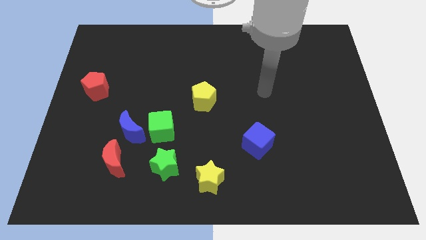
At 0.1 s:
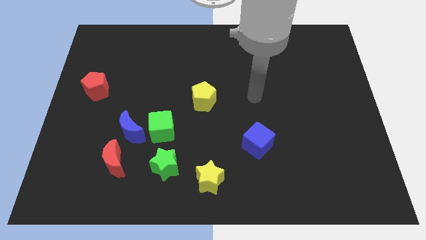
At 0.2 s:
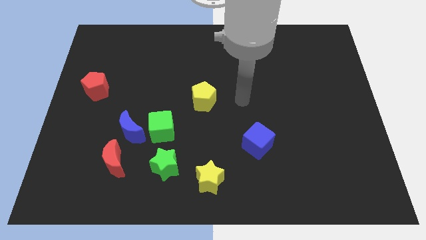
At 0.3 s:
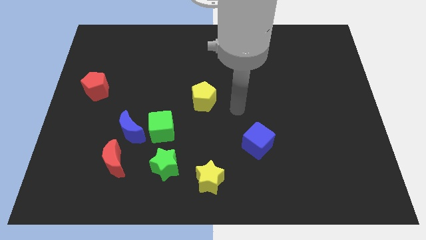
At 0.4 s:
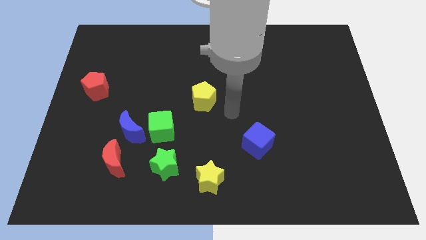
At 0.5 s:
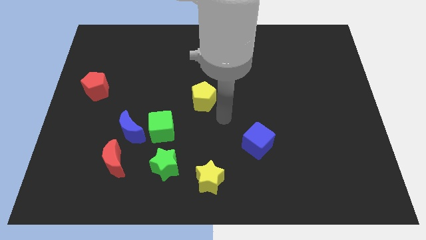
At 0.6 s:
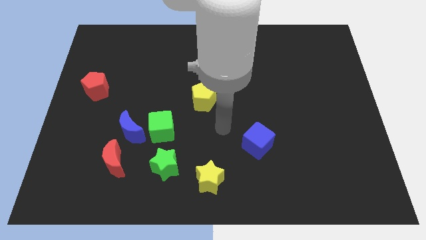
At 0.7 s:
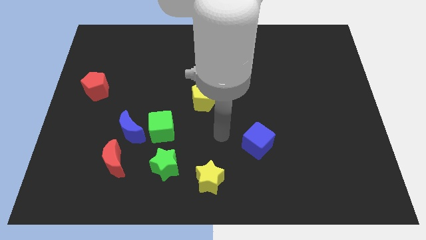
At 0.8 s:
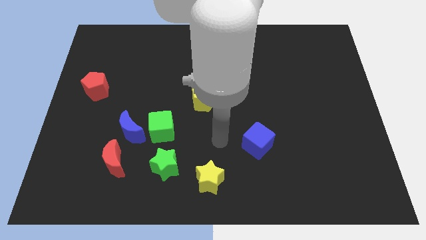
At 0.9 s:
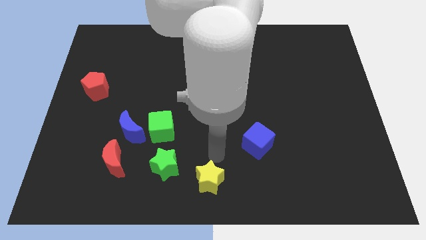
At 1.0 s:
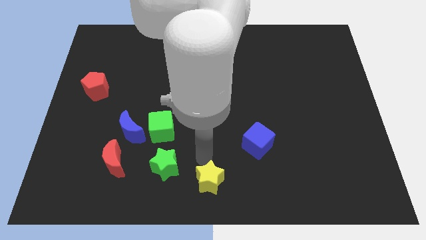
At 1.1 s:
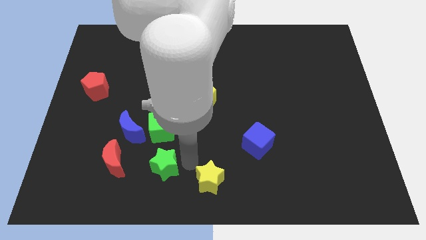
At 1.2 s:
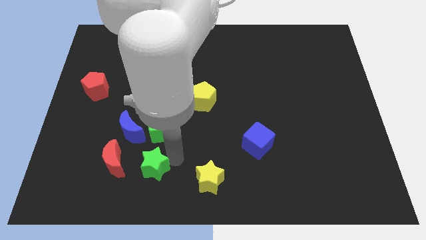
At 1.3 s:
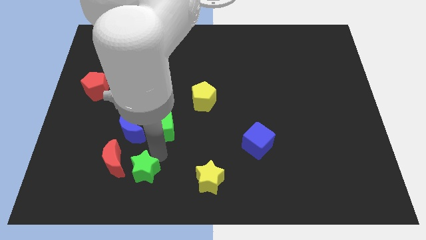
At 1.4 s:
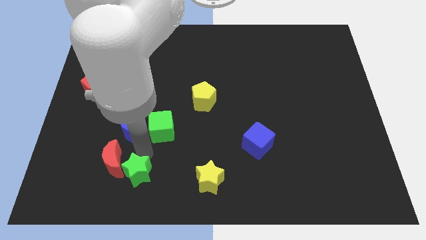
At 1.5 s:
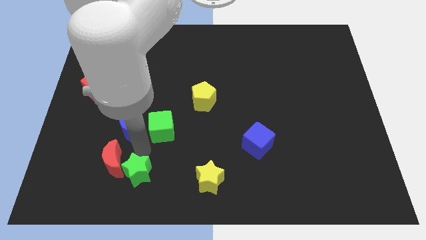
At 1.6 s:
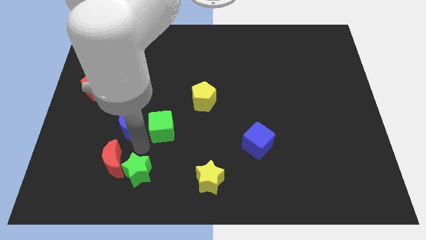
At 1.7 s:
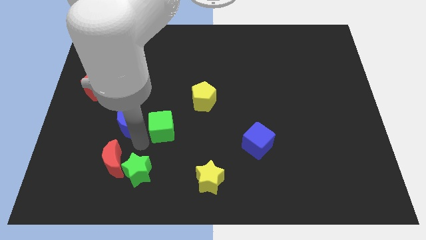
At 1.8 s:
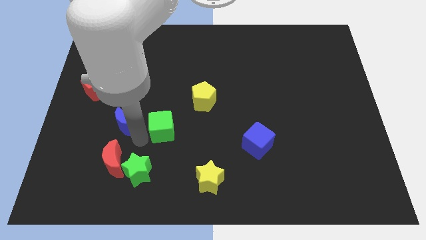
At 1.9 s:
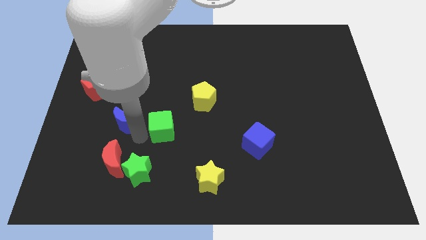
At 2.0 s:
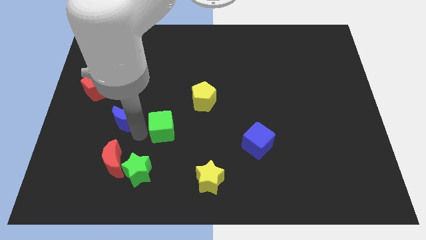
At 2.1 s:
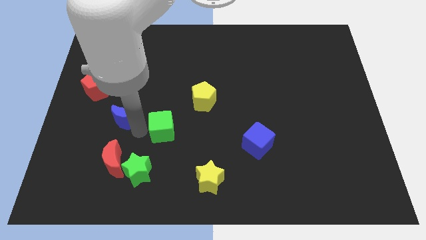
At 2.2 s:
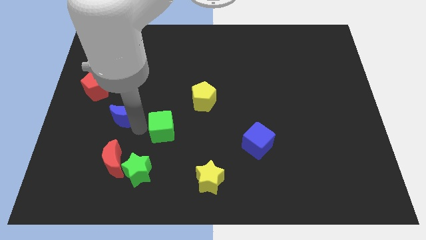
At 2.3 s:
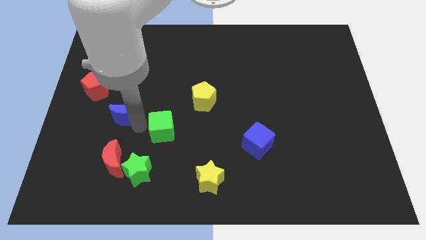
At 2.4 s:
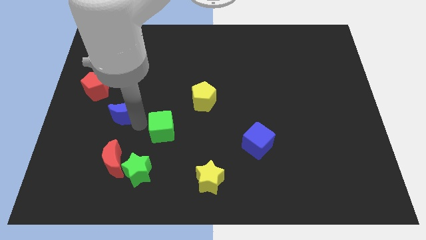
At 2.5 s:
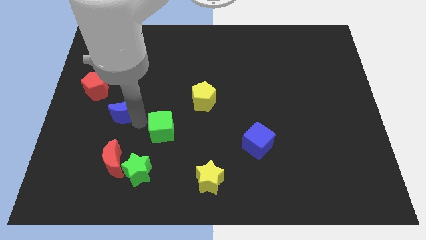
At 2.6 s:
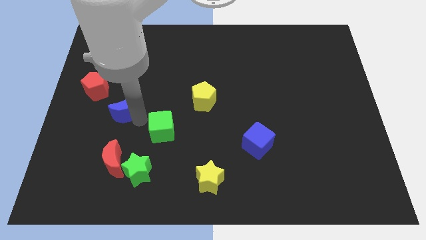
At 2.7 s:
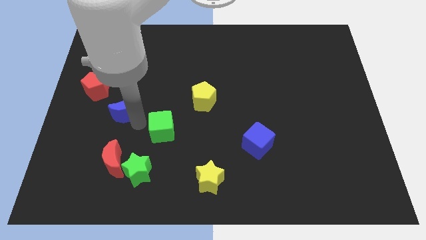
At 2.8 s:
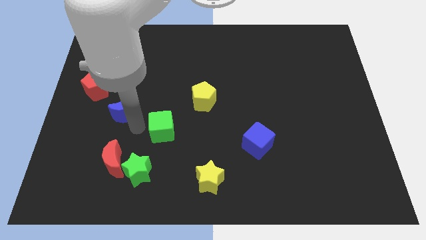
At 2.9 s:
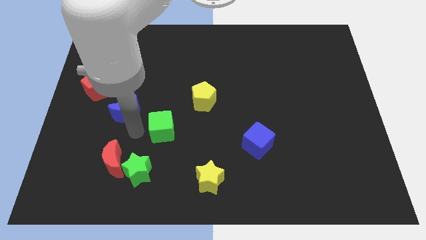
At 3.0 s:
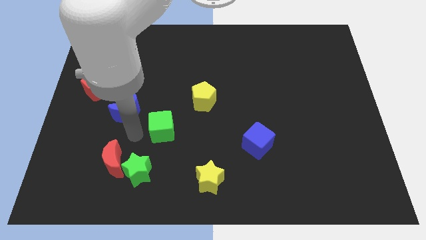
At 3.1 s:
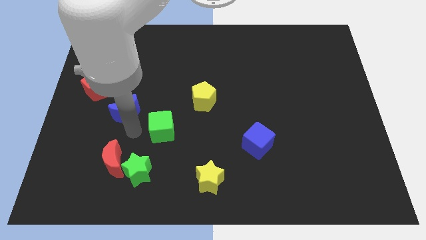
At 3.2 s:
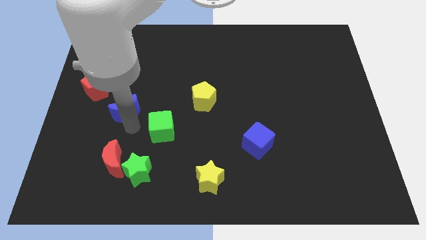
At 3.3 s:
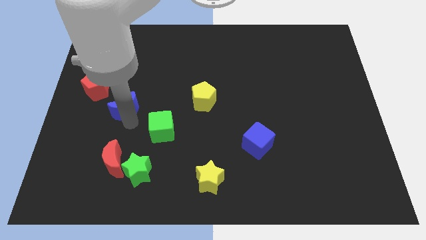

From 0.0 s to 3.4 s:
separate the blue moon from the green cube and red moon

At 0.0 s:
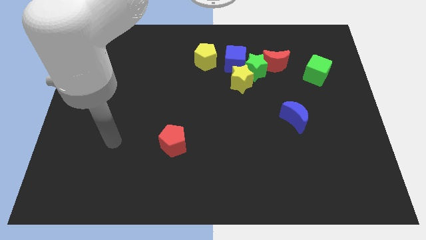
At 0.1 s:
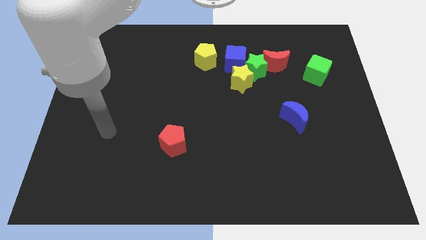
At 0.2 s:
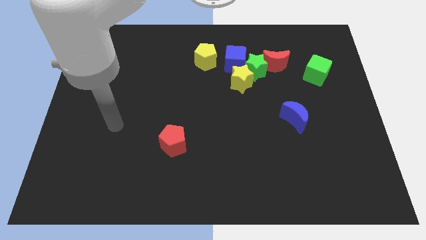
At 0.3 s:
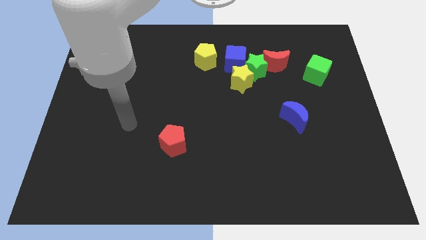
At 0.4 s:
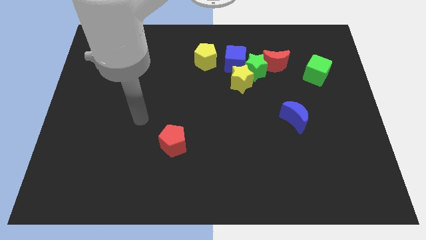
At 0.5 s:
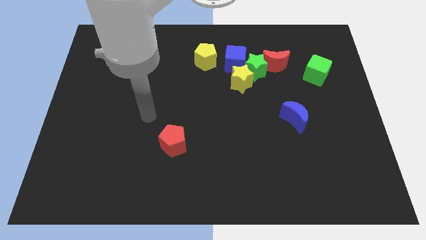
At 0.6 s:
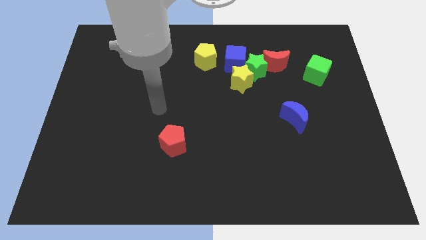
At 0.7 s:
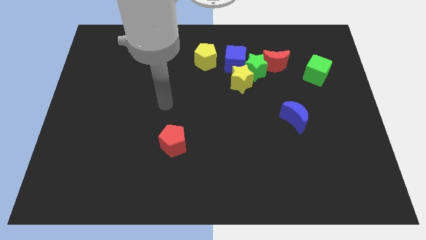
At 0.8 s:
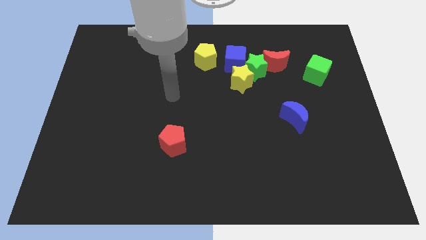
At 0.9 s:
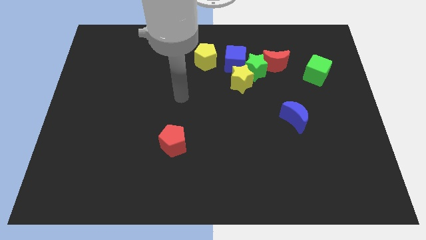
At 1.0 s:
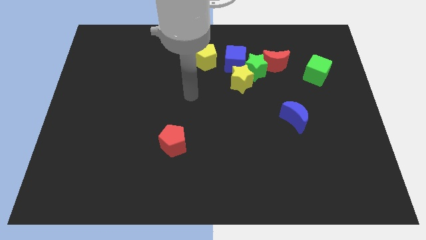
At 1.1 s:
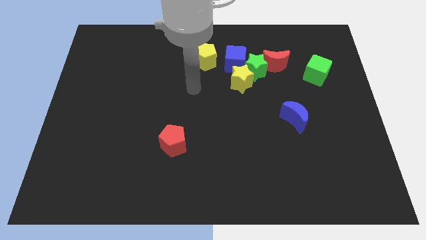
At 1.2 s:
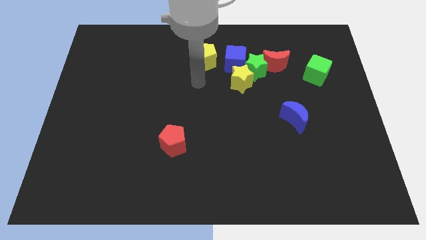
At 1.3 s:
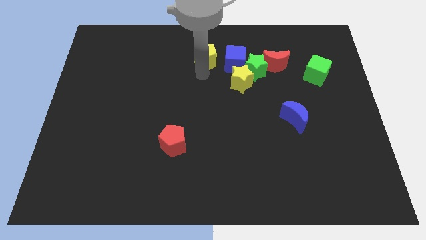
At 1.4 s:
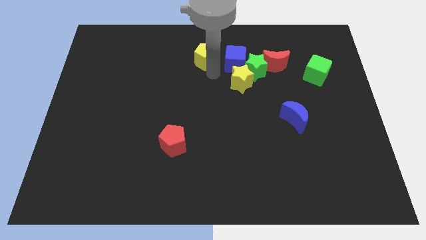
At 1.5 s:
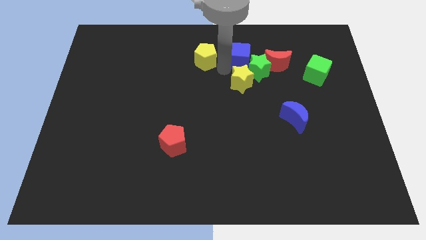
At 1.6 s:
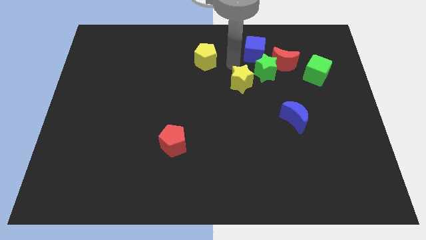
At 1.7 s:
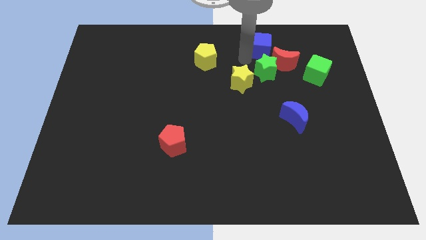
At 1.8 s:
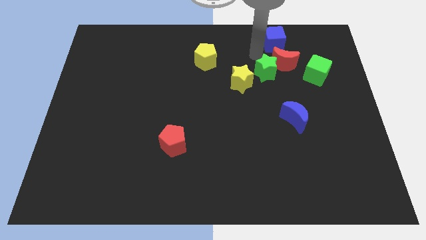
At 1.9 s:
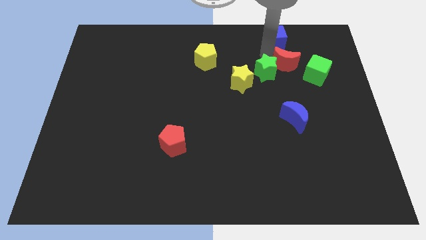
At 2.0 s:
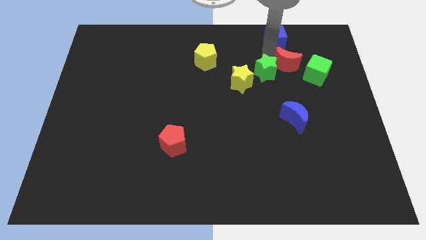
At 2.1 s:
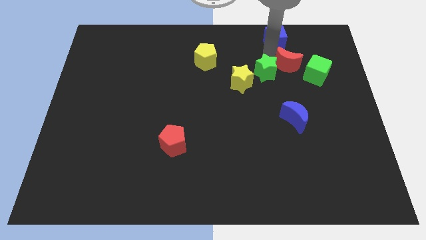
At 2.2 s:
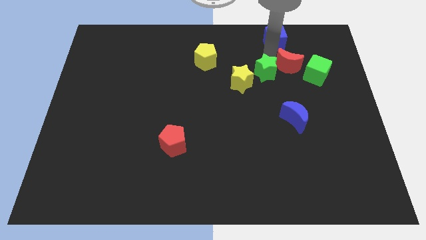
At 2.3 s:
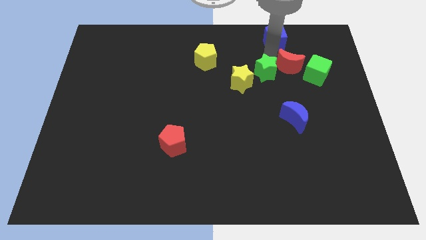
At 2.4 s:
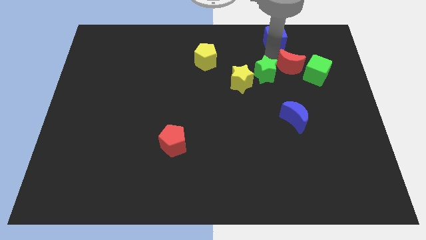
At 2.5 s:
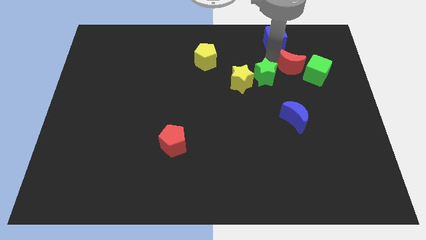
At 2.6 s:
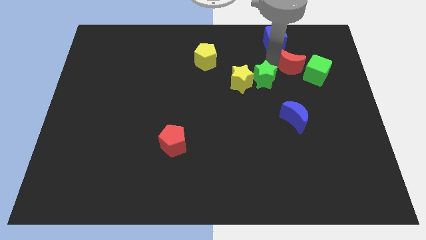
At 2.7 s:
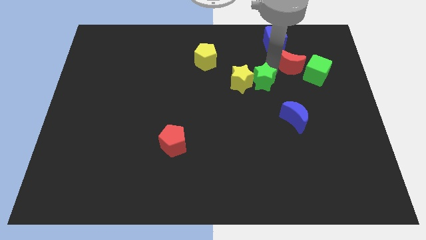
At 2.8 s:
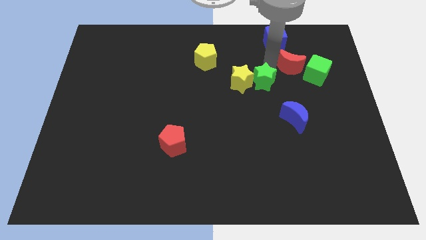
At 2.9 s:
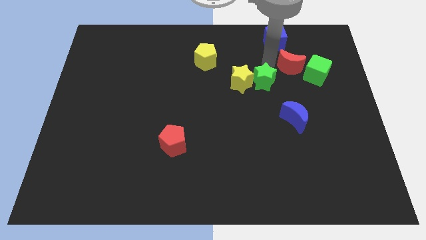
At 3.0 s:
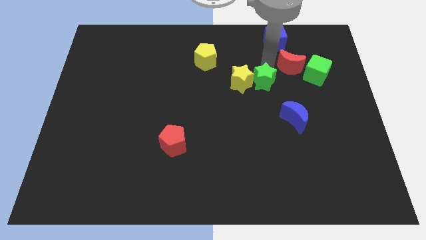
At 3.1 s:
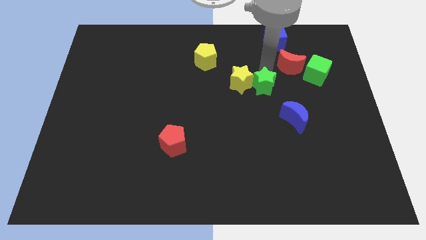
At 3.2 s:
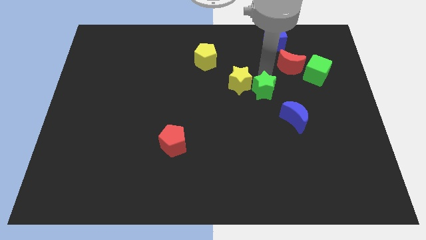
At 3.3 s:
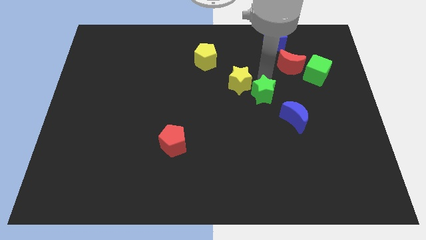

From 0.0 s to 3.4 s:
pull the green star apart from the clump

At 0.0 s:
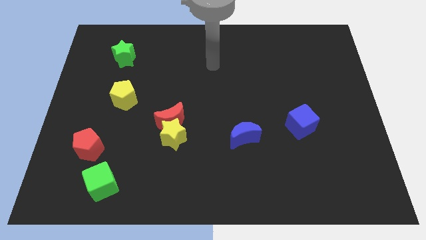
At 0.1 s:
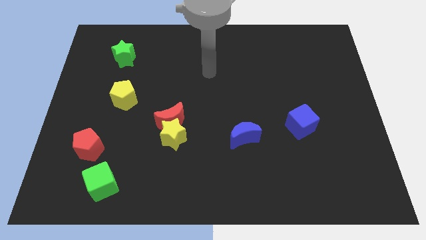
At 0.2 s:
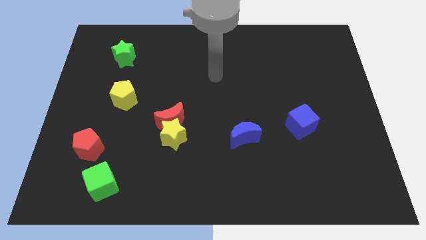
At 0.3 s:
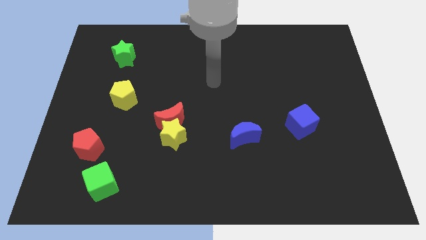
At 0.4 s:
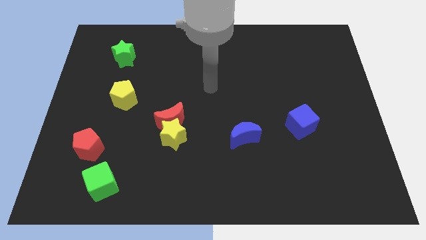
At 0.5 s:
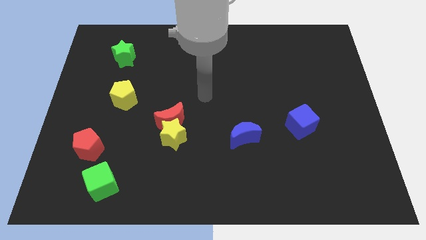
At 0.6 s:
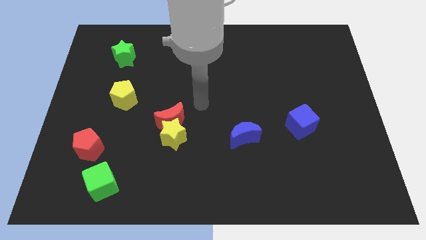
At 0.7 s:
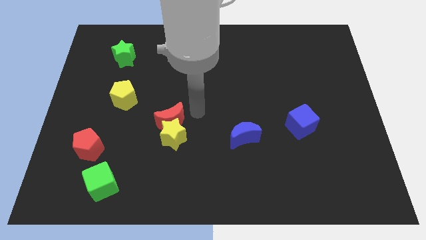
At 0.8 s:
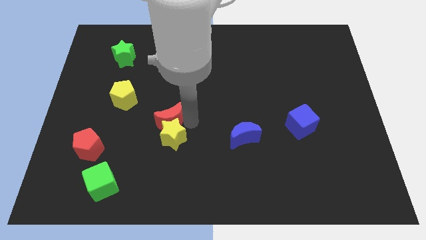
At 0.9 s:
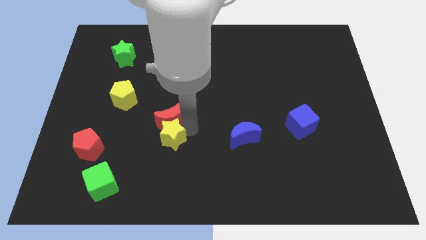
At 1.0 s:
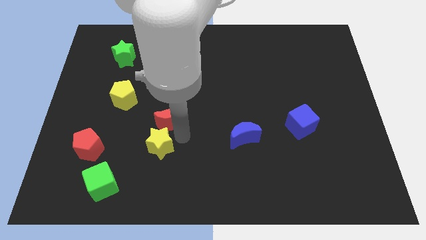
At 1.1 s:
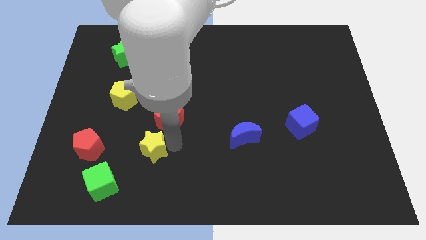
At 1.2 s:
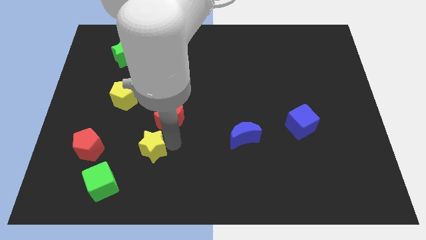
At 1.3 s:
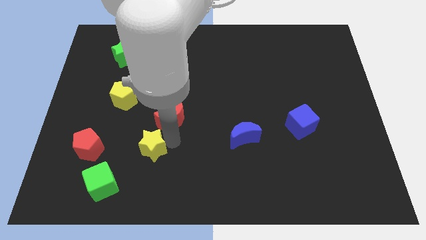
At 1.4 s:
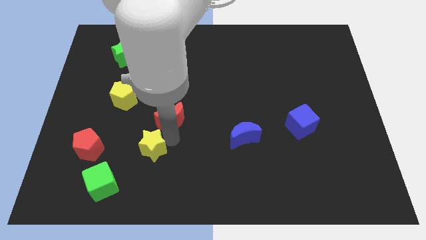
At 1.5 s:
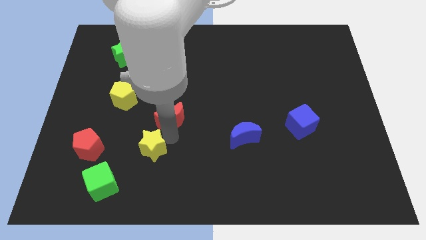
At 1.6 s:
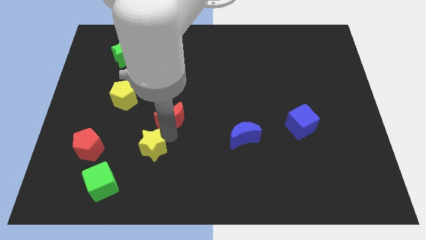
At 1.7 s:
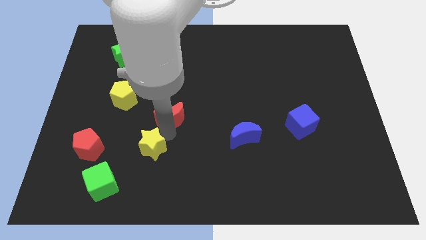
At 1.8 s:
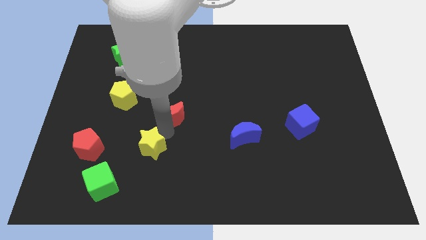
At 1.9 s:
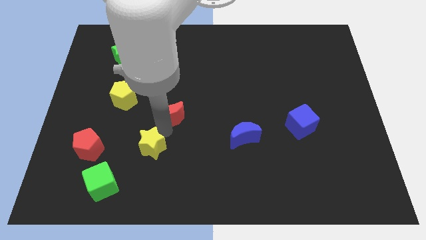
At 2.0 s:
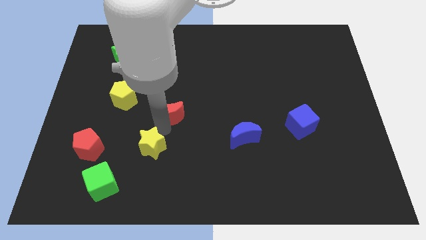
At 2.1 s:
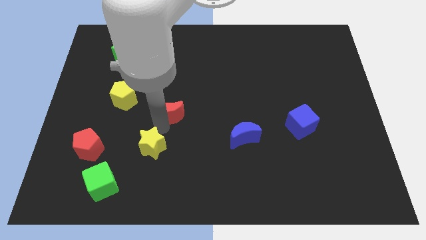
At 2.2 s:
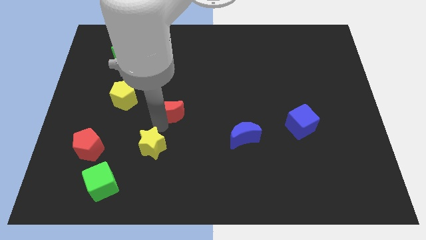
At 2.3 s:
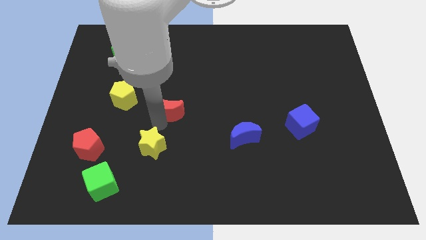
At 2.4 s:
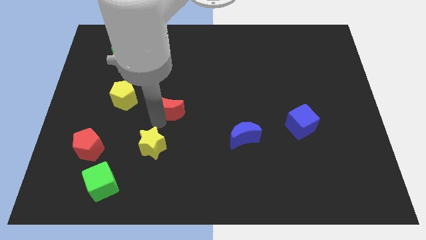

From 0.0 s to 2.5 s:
pull the red moon apart from the yellow star

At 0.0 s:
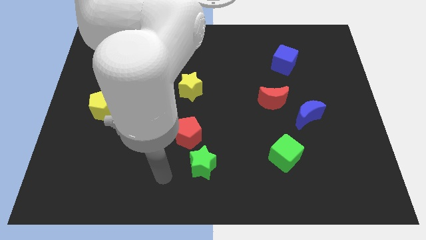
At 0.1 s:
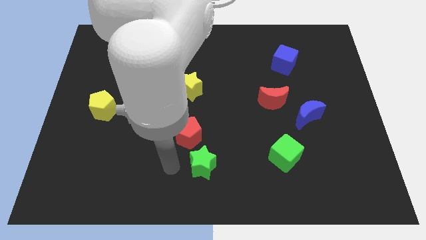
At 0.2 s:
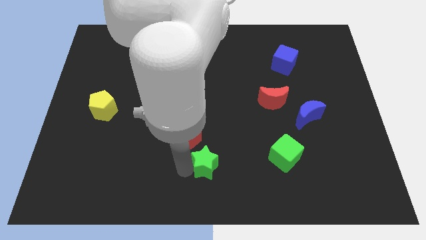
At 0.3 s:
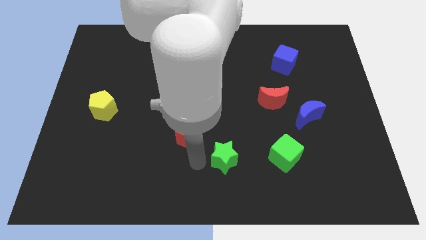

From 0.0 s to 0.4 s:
move the red pentagon away from the green star
